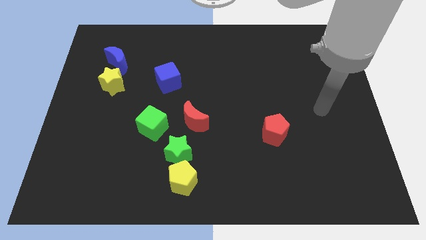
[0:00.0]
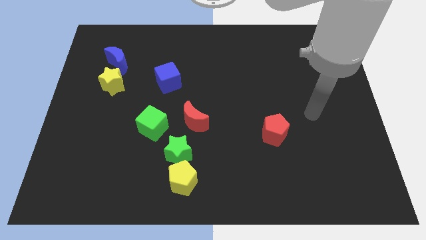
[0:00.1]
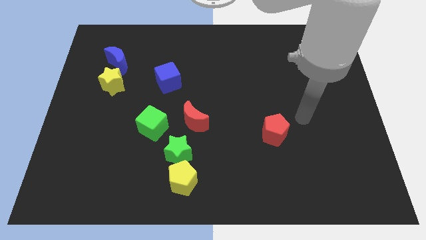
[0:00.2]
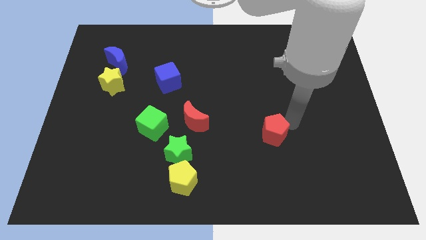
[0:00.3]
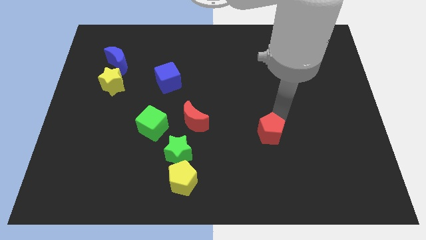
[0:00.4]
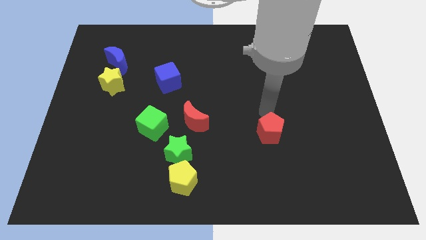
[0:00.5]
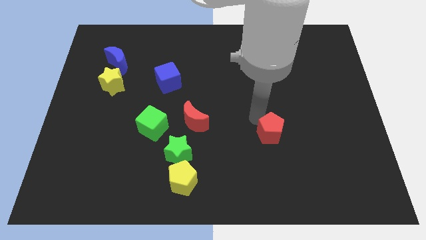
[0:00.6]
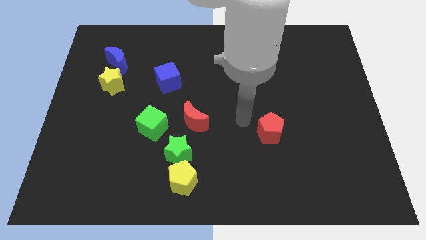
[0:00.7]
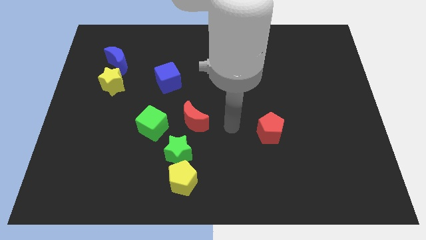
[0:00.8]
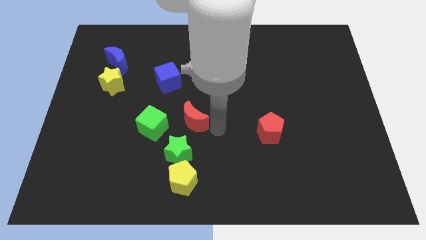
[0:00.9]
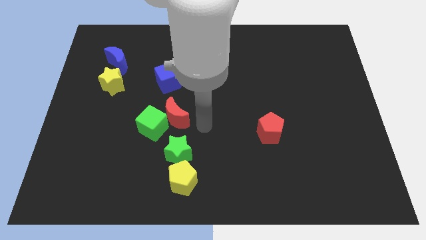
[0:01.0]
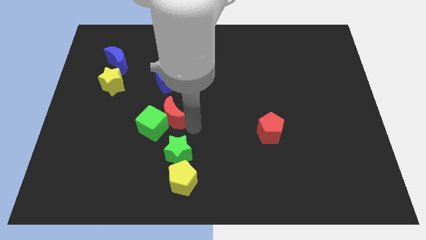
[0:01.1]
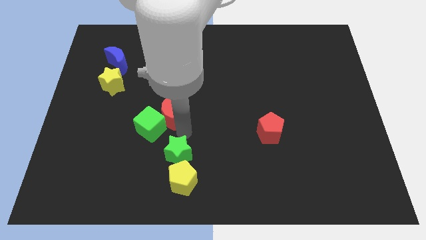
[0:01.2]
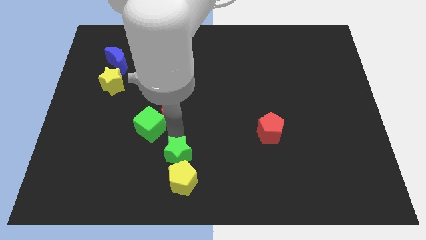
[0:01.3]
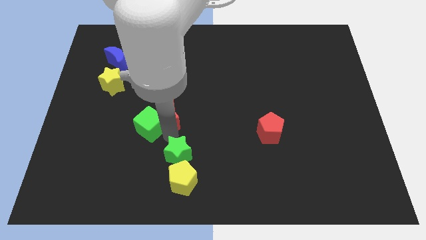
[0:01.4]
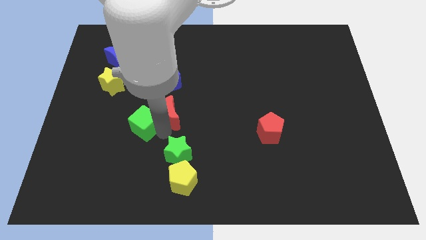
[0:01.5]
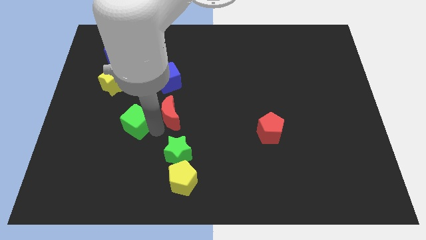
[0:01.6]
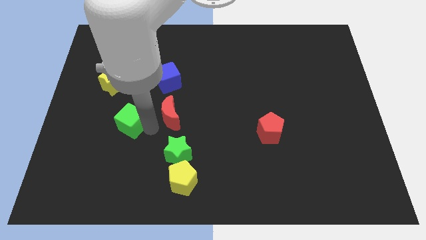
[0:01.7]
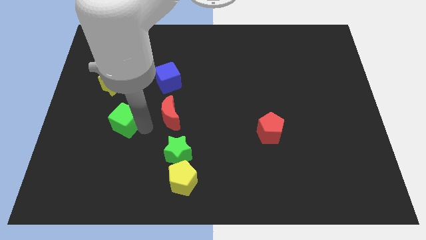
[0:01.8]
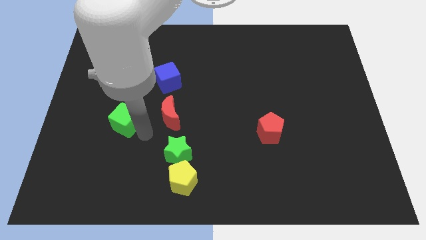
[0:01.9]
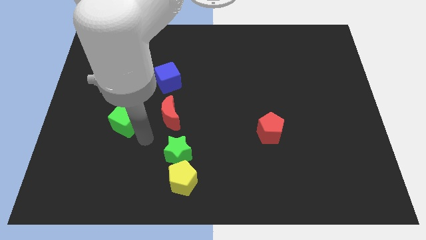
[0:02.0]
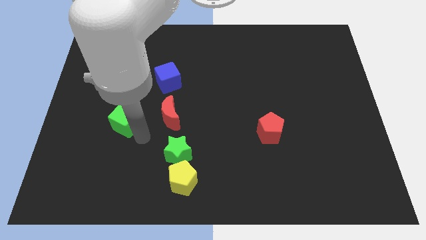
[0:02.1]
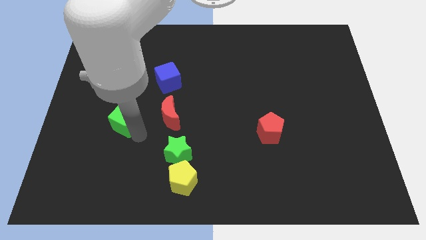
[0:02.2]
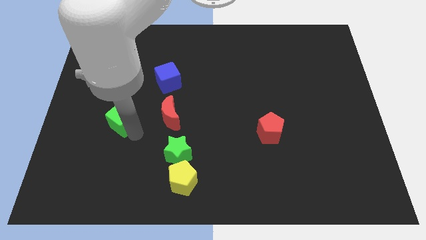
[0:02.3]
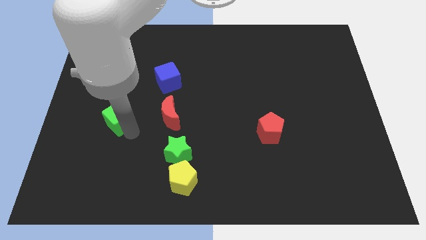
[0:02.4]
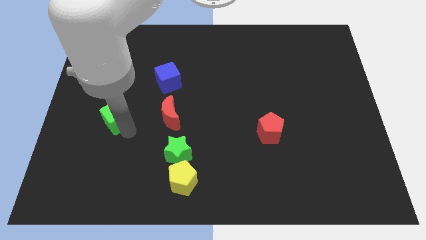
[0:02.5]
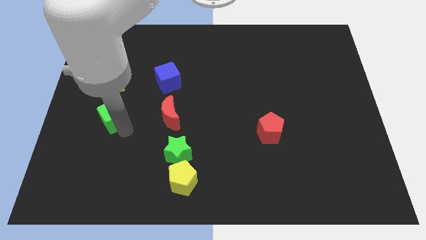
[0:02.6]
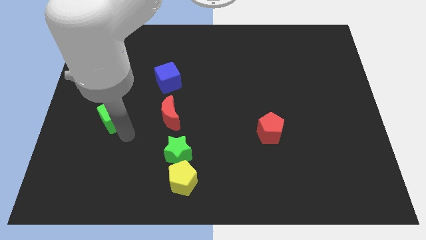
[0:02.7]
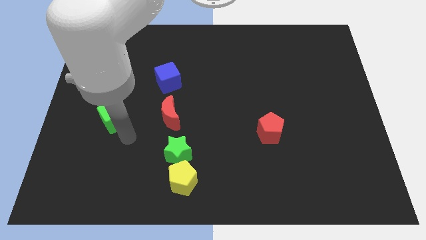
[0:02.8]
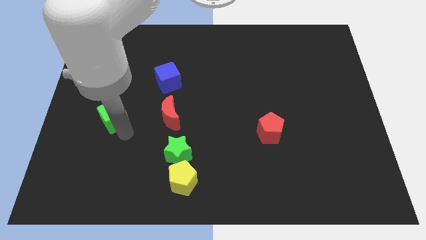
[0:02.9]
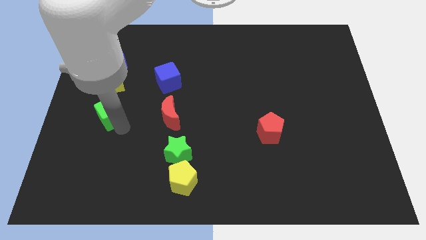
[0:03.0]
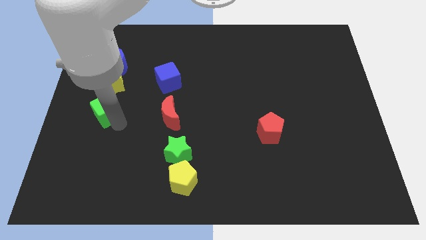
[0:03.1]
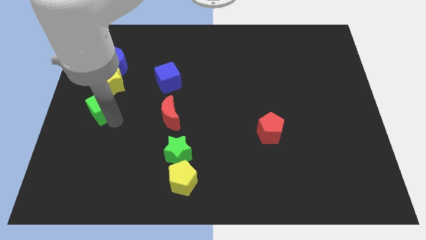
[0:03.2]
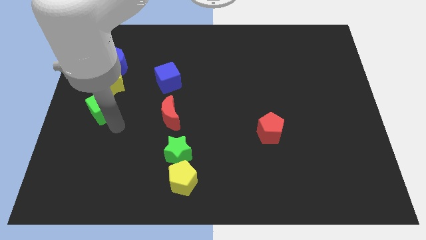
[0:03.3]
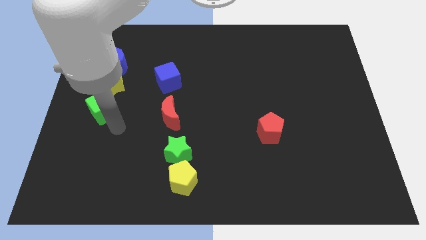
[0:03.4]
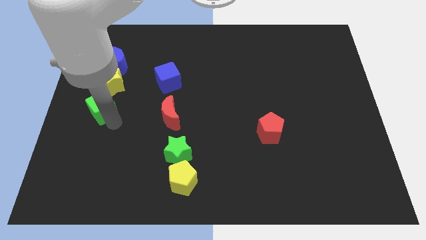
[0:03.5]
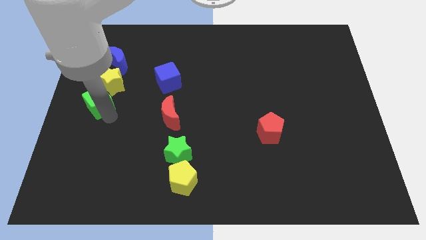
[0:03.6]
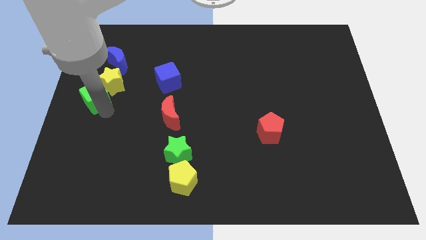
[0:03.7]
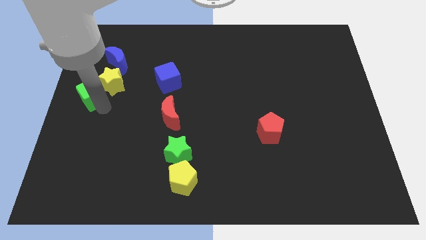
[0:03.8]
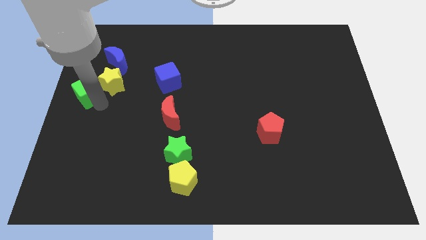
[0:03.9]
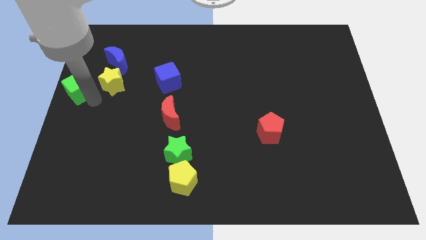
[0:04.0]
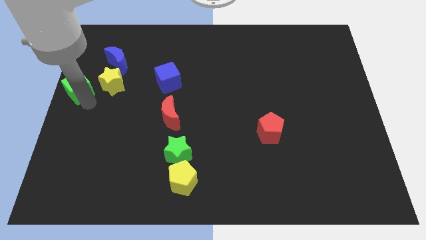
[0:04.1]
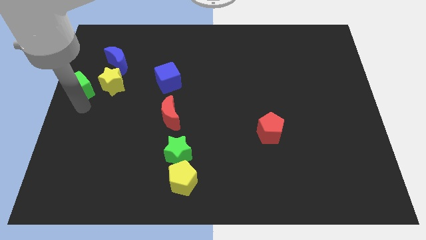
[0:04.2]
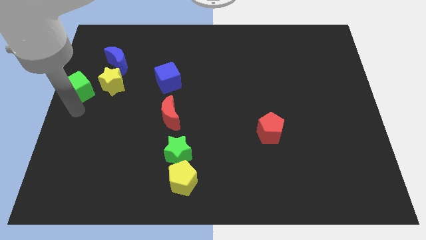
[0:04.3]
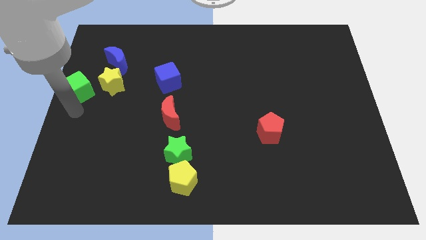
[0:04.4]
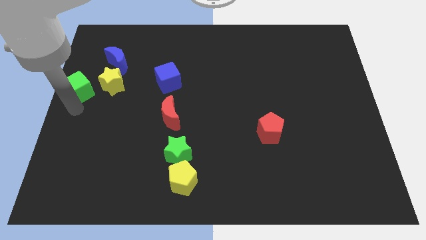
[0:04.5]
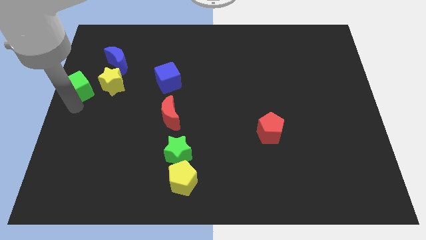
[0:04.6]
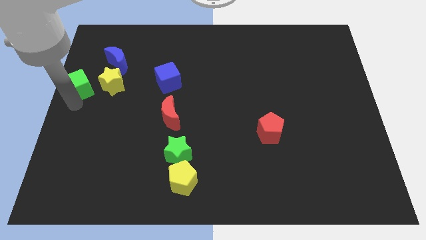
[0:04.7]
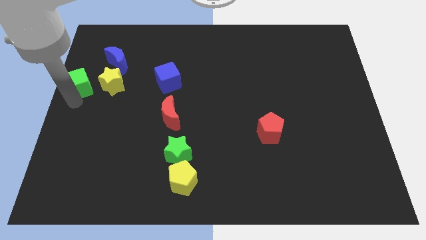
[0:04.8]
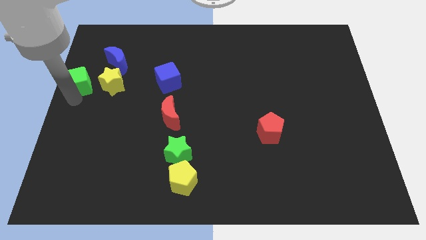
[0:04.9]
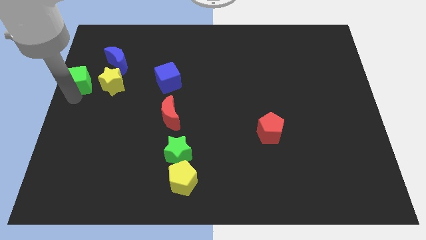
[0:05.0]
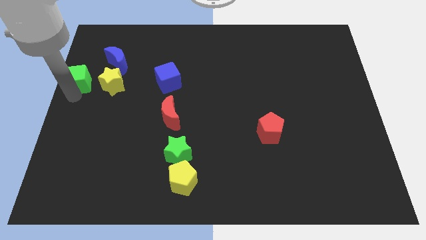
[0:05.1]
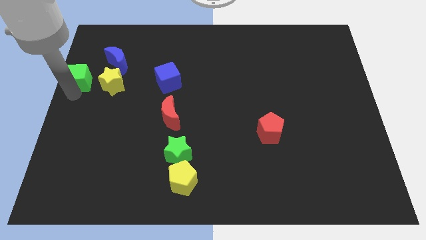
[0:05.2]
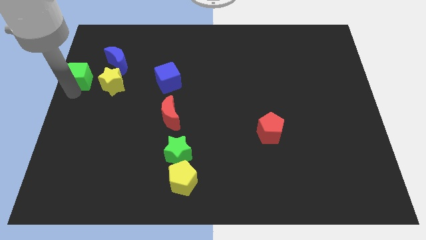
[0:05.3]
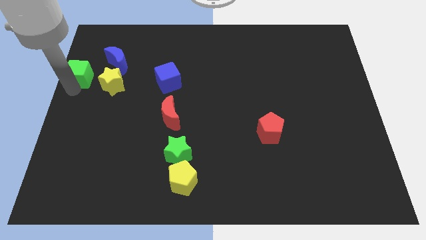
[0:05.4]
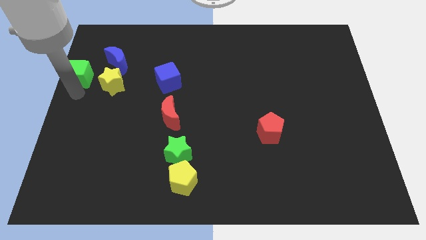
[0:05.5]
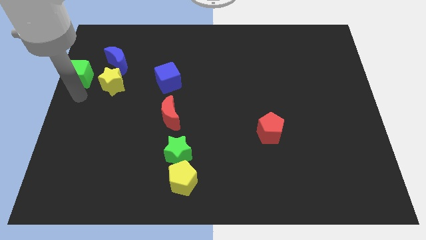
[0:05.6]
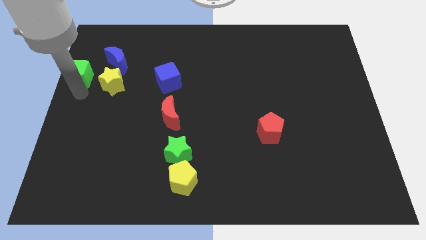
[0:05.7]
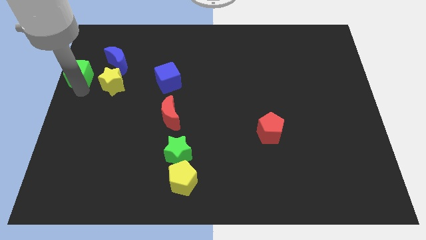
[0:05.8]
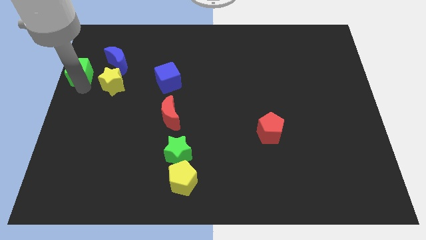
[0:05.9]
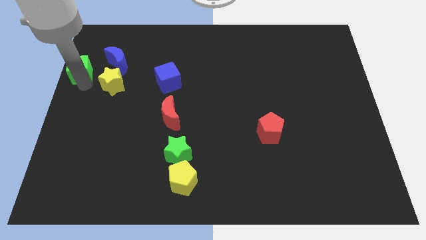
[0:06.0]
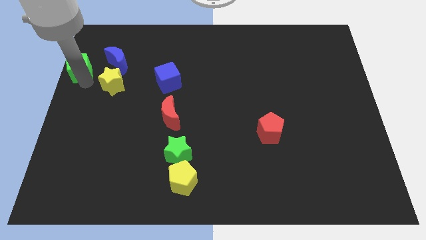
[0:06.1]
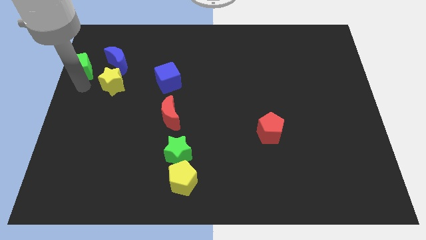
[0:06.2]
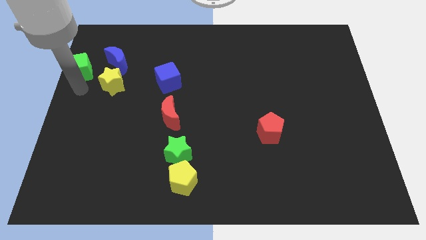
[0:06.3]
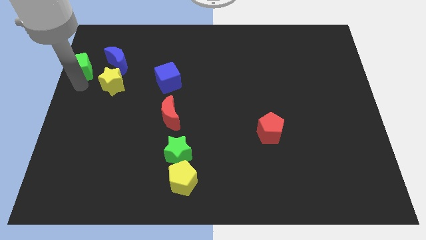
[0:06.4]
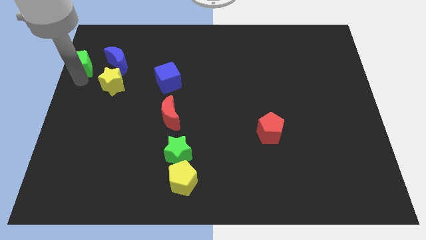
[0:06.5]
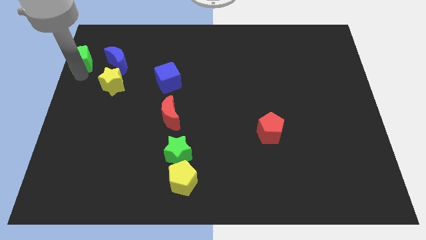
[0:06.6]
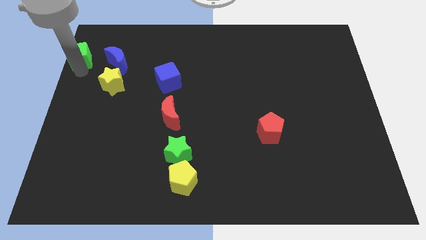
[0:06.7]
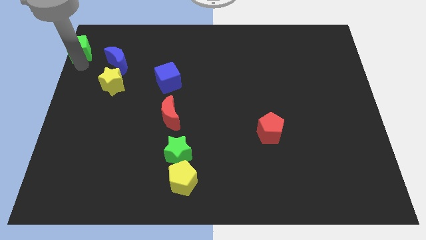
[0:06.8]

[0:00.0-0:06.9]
push the green cube to the top left of the board

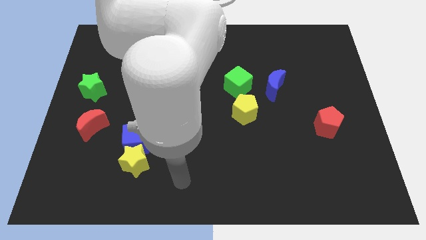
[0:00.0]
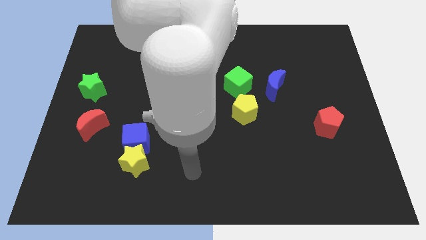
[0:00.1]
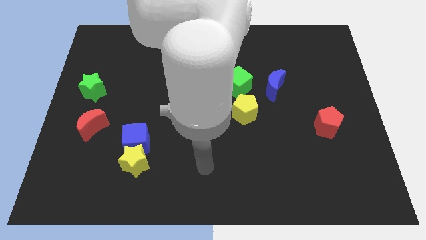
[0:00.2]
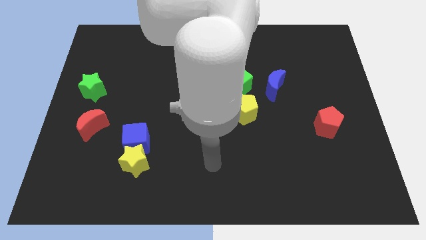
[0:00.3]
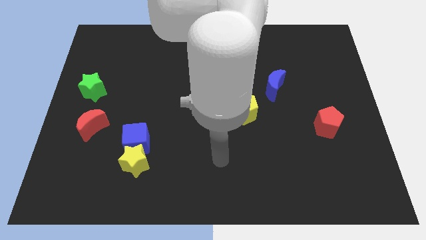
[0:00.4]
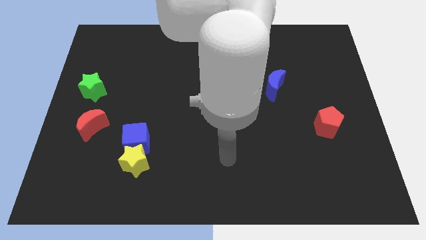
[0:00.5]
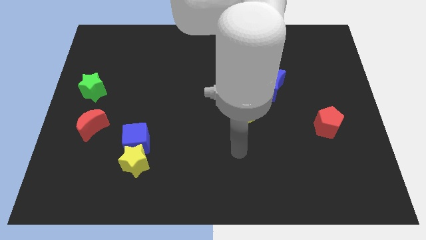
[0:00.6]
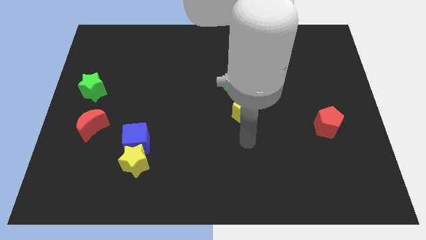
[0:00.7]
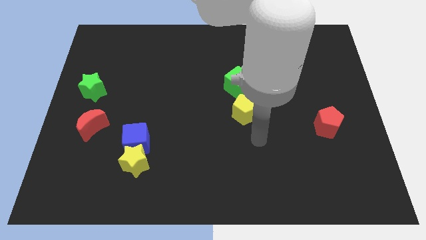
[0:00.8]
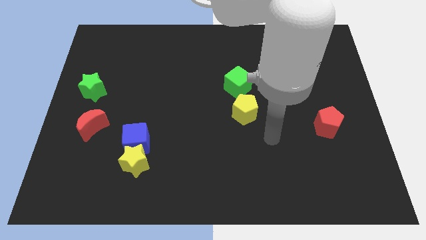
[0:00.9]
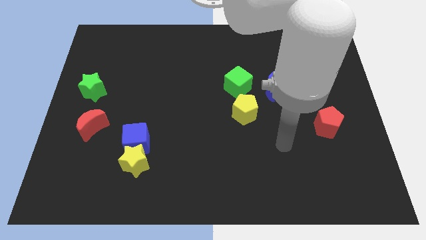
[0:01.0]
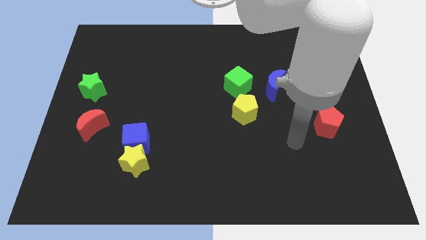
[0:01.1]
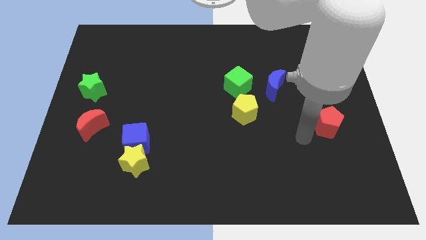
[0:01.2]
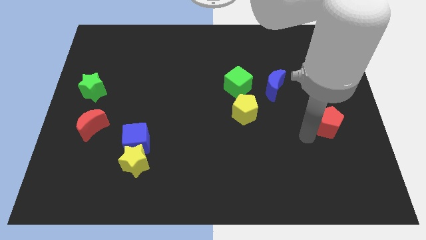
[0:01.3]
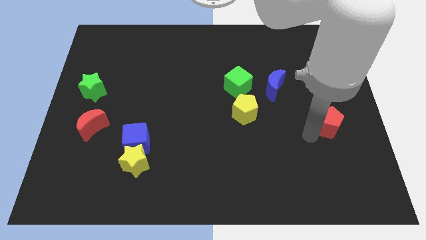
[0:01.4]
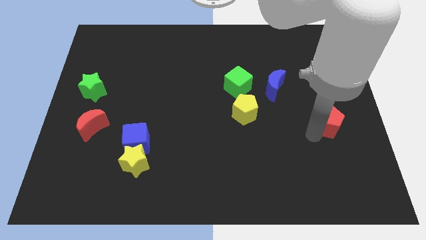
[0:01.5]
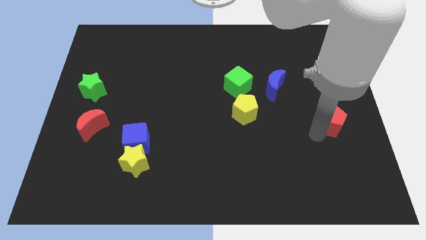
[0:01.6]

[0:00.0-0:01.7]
slide the red pentagon to the center right
